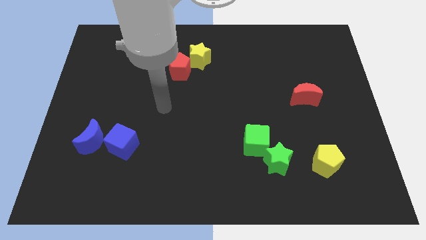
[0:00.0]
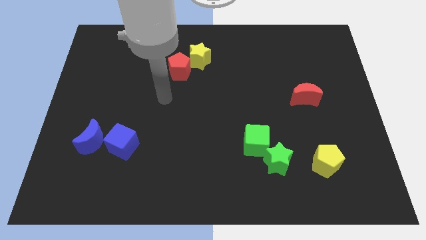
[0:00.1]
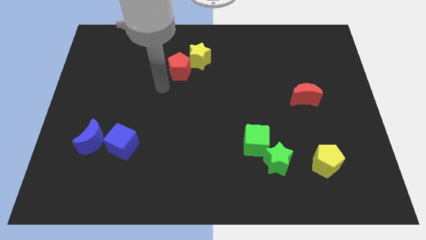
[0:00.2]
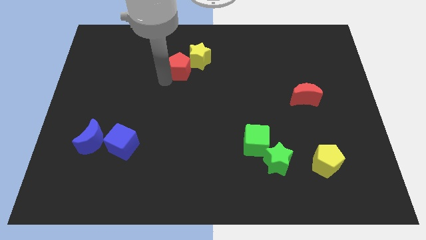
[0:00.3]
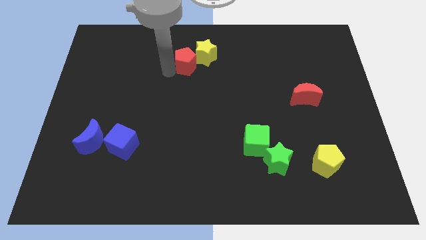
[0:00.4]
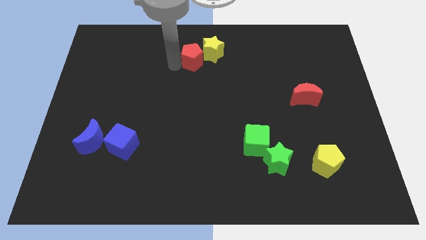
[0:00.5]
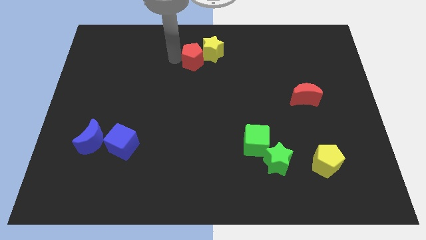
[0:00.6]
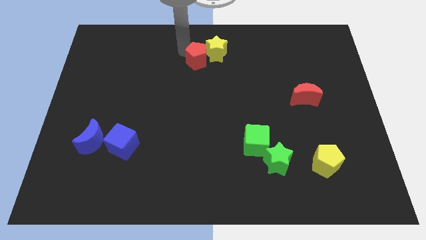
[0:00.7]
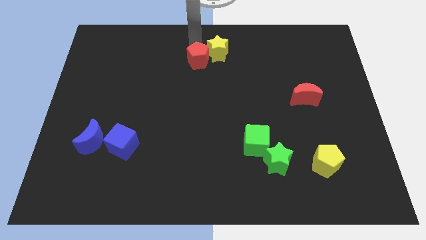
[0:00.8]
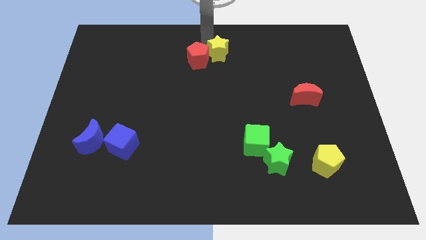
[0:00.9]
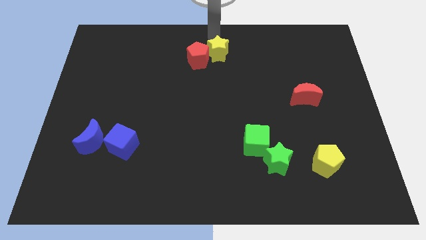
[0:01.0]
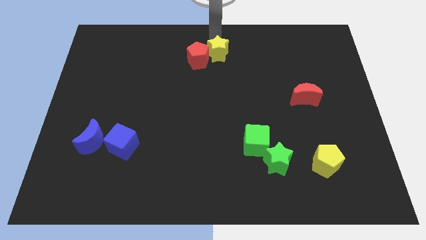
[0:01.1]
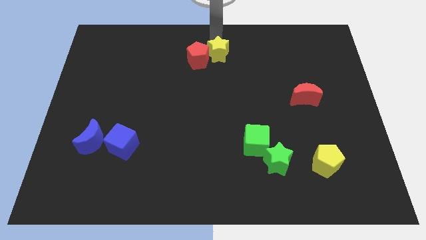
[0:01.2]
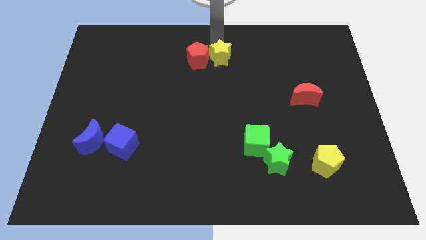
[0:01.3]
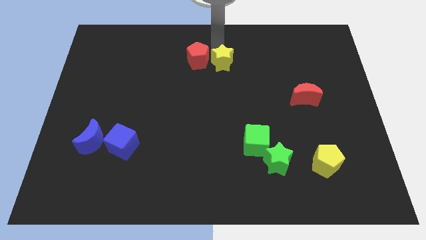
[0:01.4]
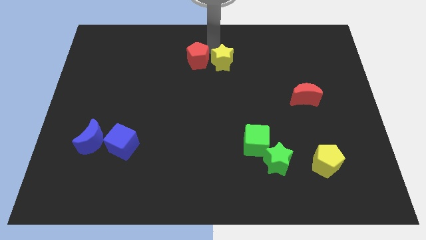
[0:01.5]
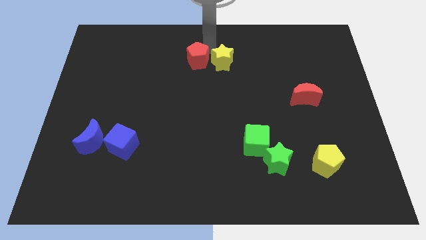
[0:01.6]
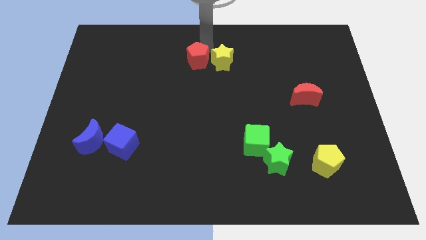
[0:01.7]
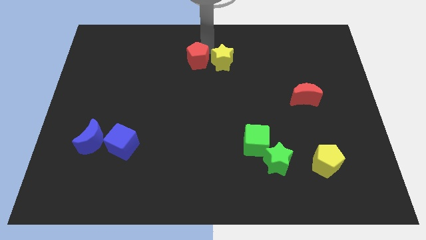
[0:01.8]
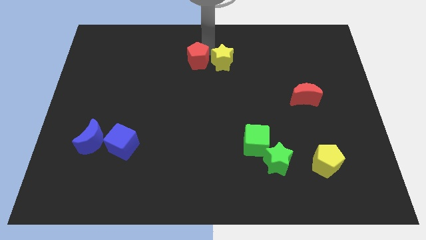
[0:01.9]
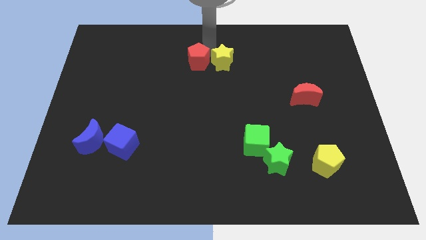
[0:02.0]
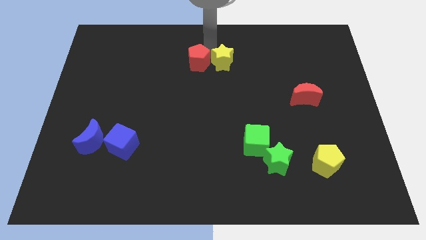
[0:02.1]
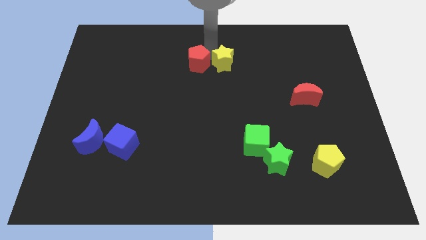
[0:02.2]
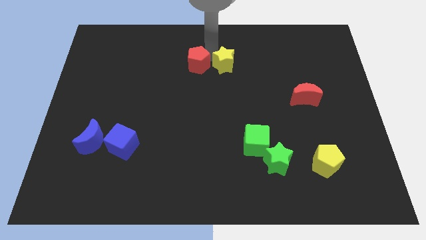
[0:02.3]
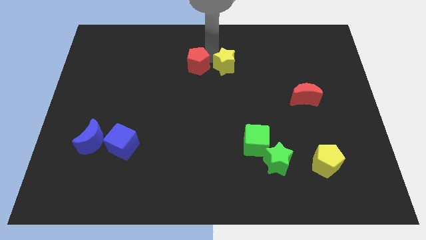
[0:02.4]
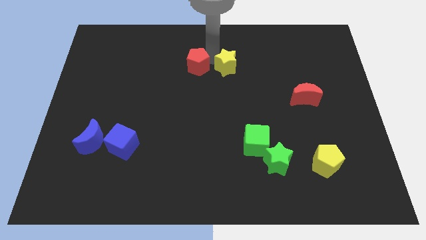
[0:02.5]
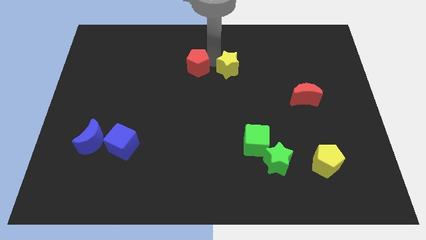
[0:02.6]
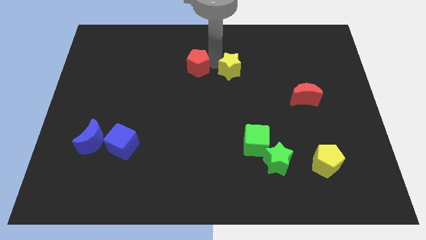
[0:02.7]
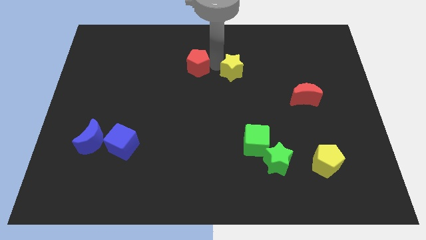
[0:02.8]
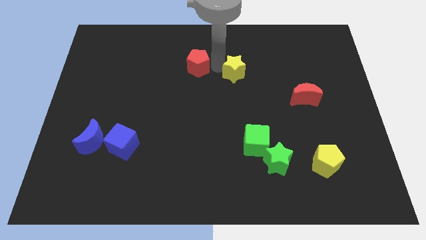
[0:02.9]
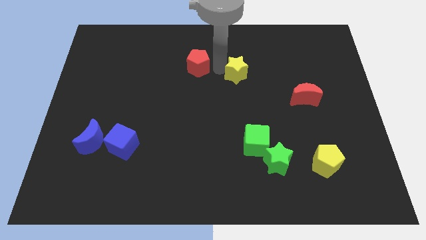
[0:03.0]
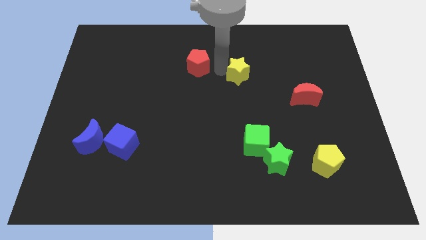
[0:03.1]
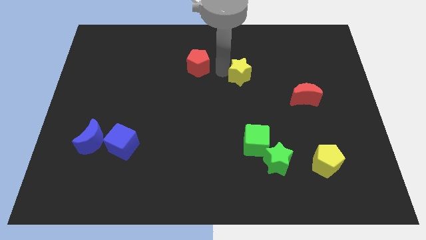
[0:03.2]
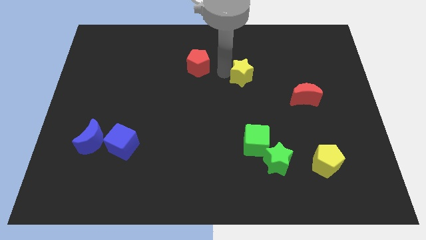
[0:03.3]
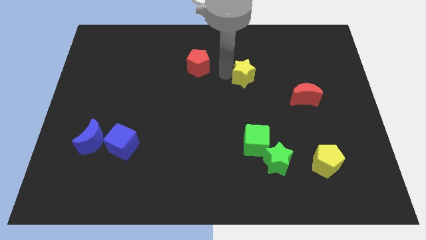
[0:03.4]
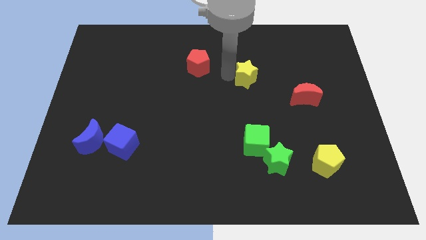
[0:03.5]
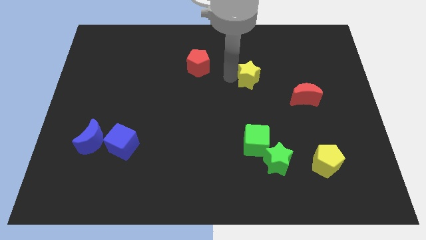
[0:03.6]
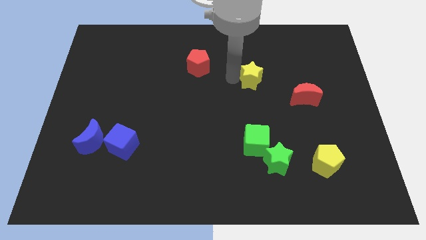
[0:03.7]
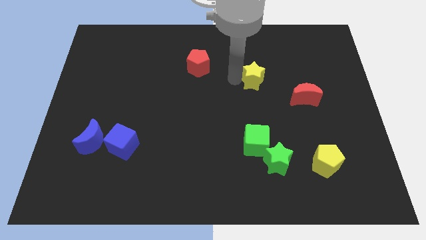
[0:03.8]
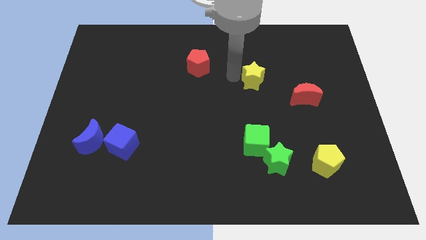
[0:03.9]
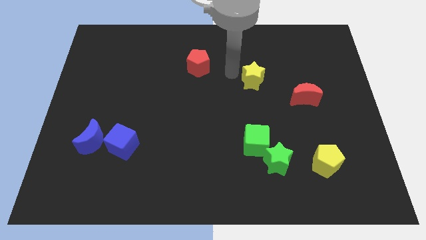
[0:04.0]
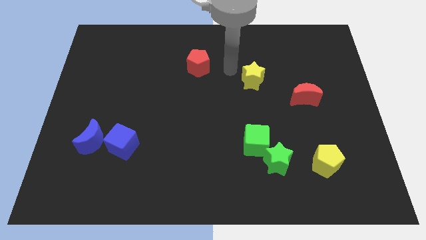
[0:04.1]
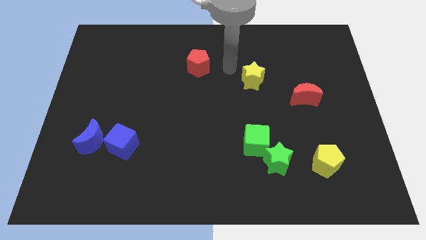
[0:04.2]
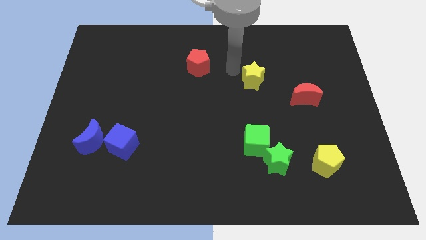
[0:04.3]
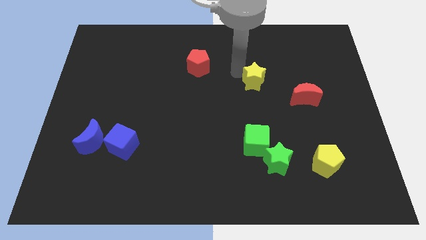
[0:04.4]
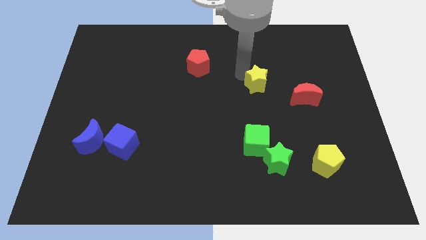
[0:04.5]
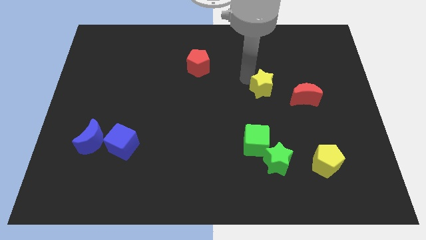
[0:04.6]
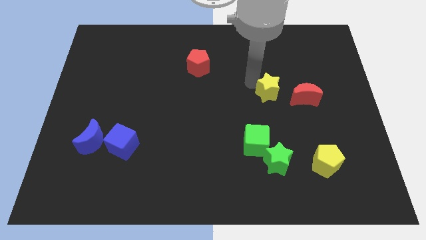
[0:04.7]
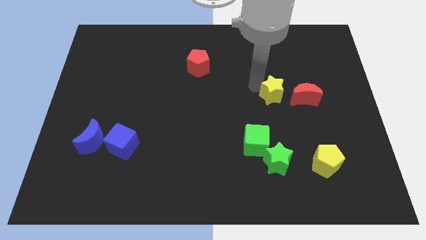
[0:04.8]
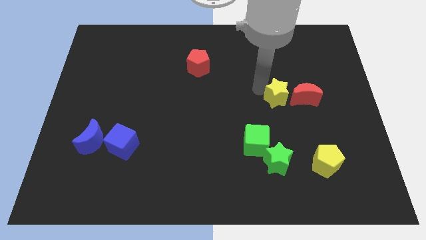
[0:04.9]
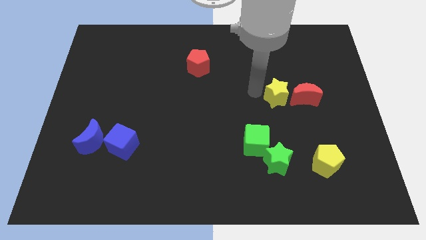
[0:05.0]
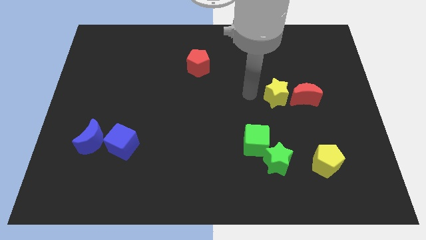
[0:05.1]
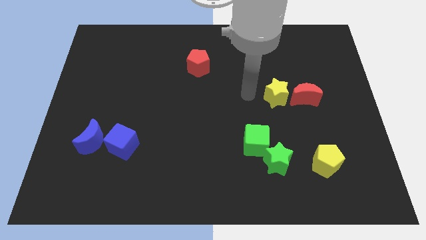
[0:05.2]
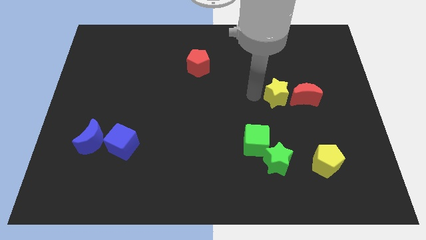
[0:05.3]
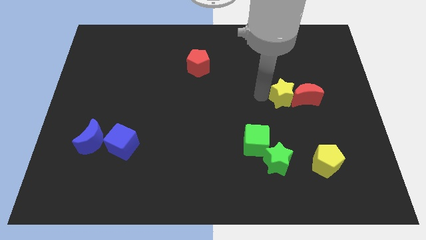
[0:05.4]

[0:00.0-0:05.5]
put the yellow star close to the red moon

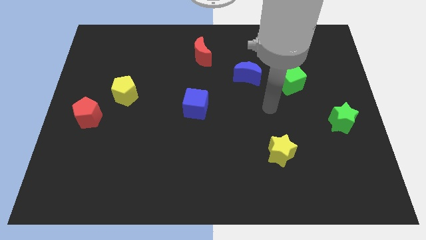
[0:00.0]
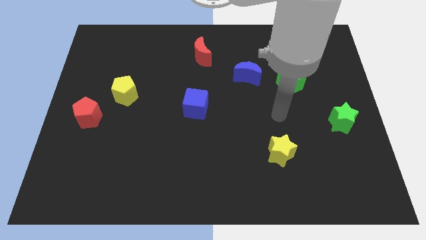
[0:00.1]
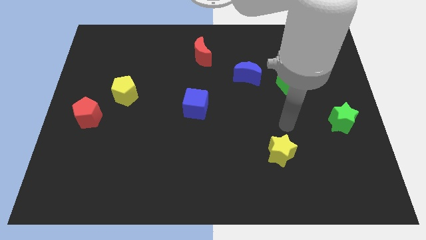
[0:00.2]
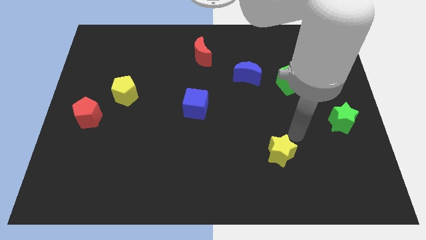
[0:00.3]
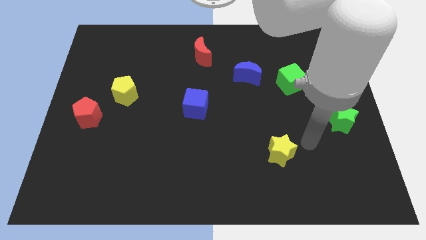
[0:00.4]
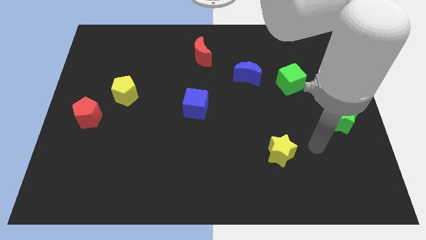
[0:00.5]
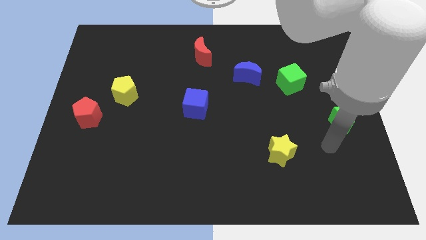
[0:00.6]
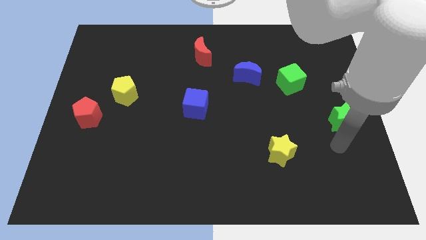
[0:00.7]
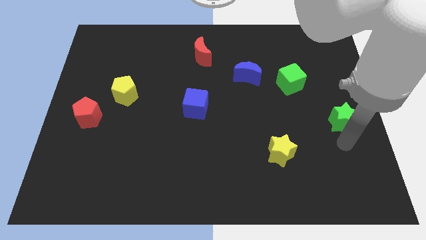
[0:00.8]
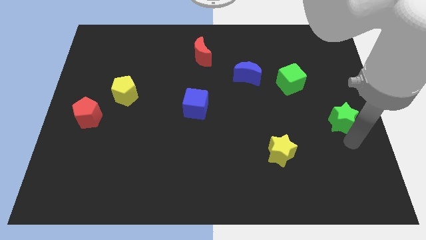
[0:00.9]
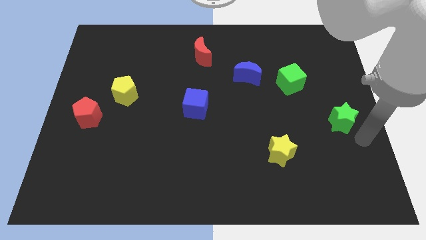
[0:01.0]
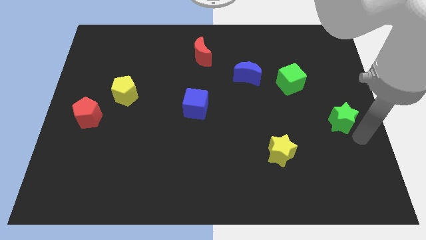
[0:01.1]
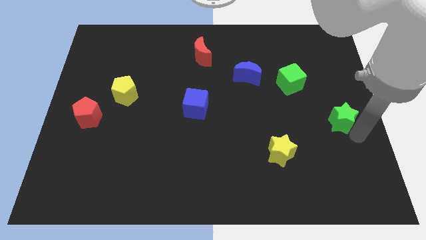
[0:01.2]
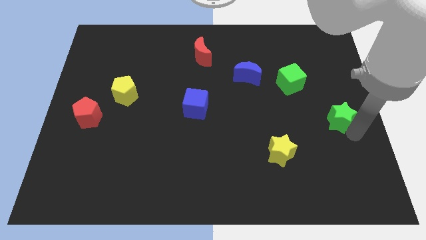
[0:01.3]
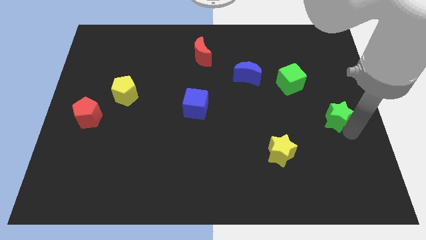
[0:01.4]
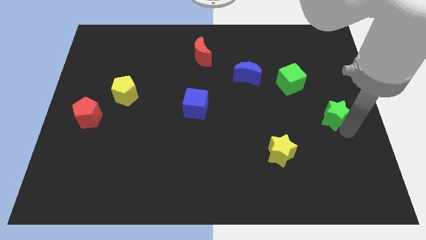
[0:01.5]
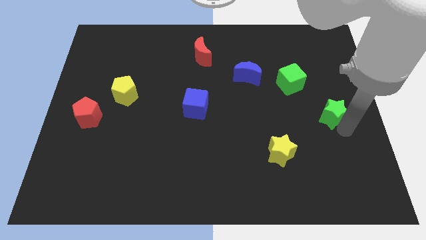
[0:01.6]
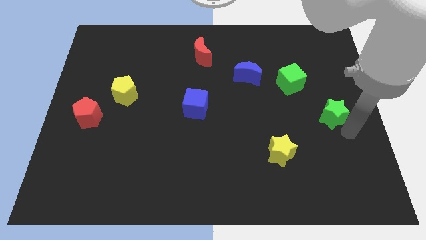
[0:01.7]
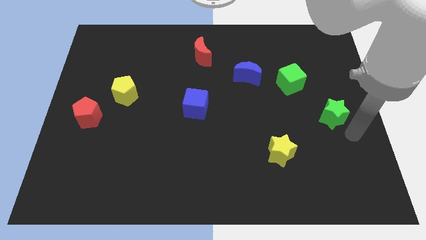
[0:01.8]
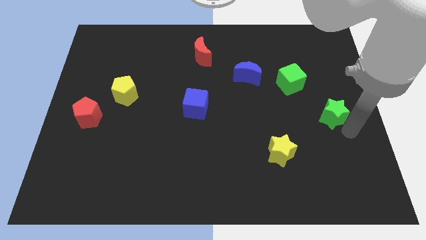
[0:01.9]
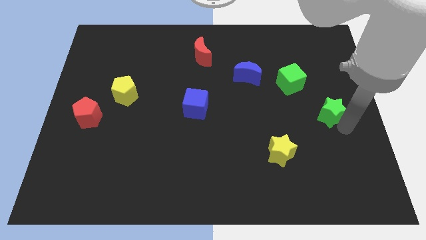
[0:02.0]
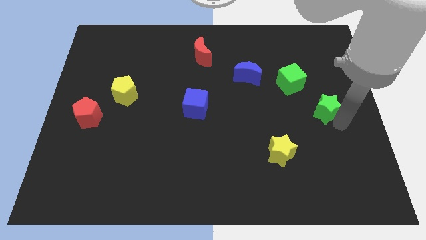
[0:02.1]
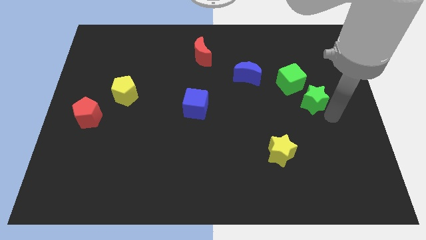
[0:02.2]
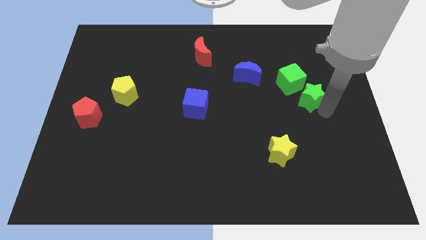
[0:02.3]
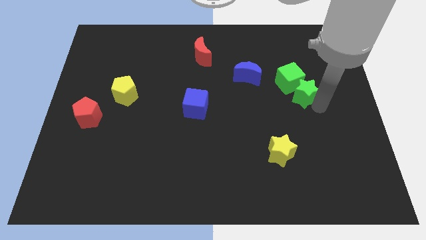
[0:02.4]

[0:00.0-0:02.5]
move the green star close to the green cube

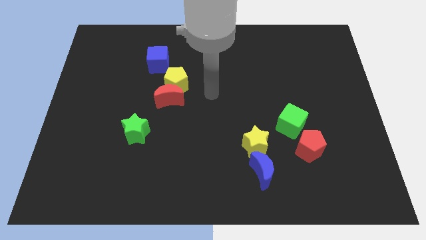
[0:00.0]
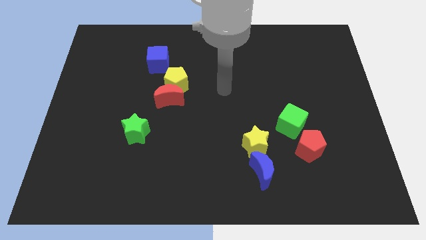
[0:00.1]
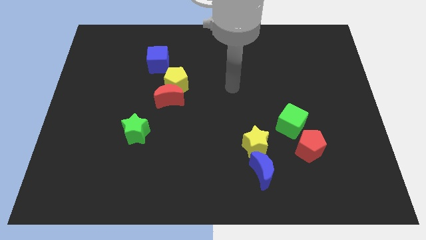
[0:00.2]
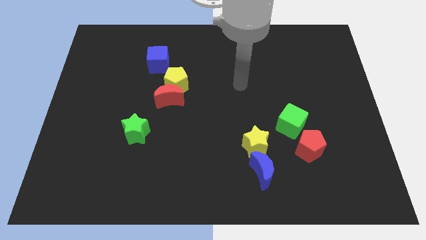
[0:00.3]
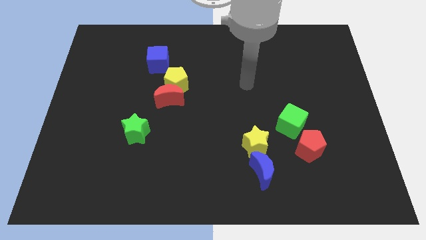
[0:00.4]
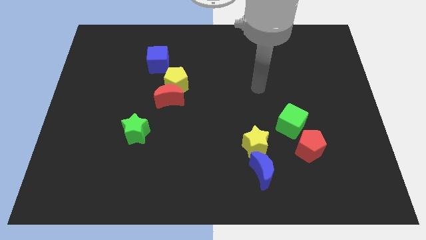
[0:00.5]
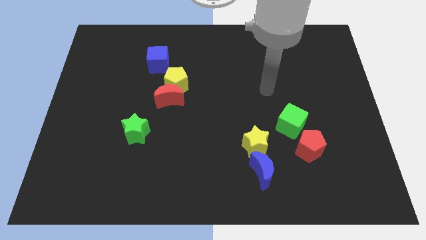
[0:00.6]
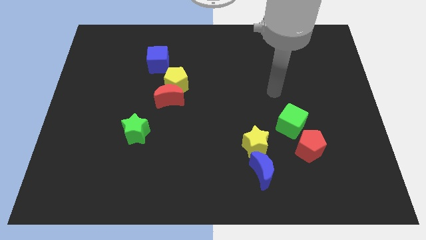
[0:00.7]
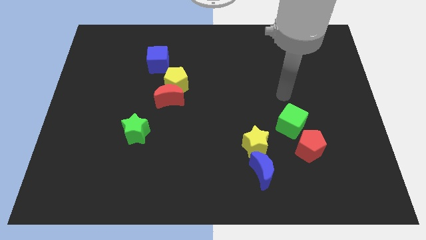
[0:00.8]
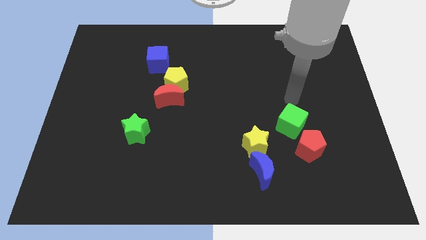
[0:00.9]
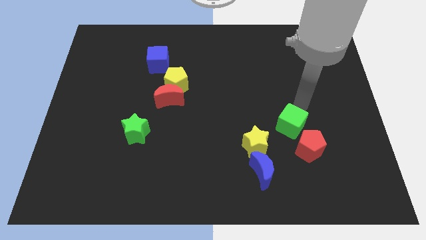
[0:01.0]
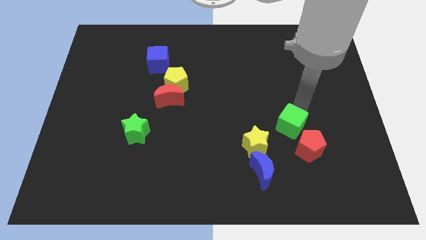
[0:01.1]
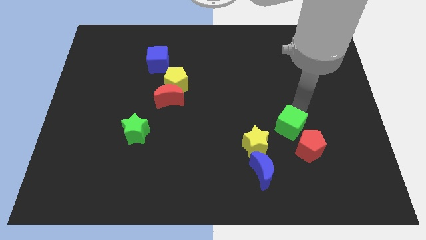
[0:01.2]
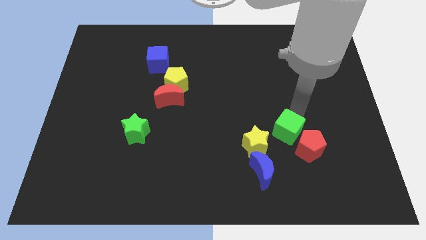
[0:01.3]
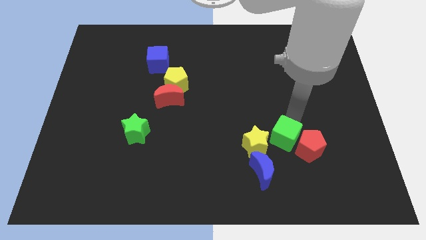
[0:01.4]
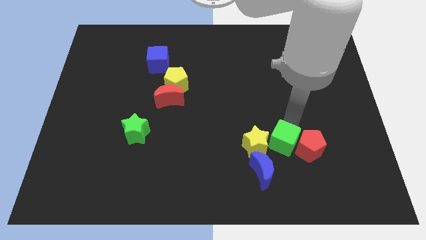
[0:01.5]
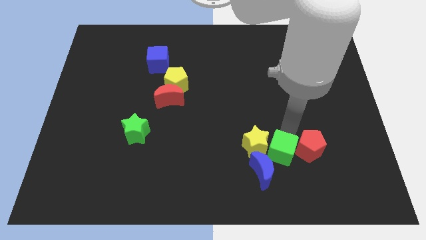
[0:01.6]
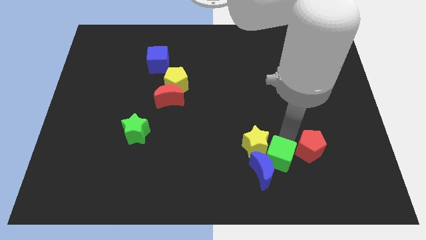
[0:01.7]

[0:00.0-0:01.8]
move the green cube close to the blue moon
